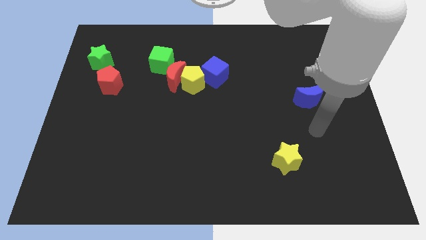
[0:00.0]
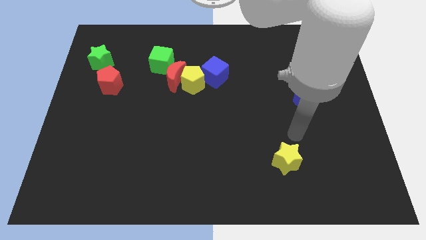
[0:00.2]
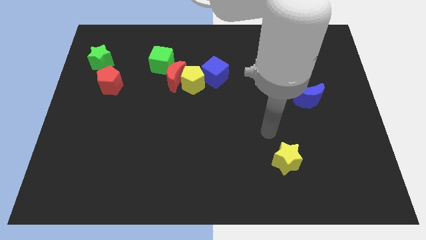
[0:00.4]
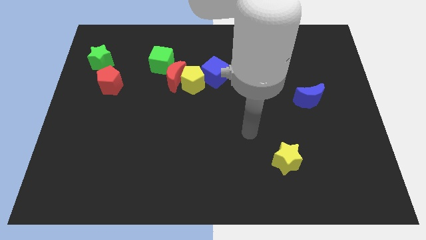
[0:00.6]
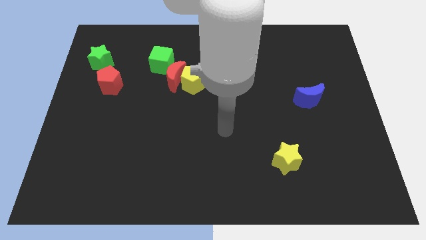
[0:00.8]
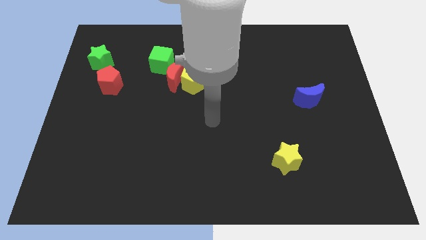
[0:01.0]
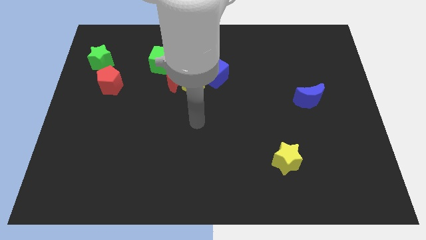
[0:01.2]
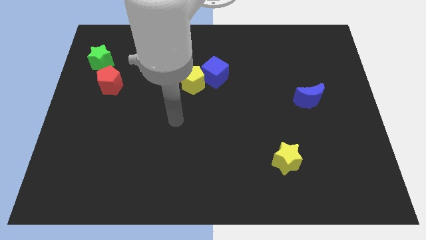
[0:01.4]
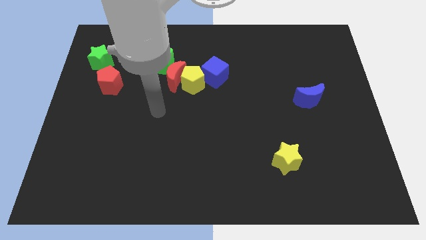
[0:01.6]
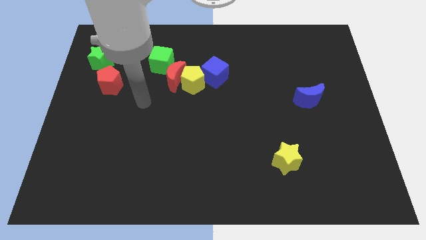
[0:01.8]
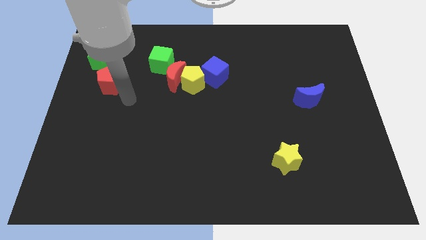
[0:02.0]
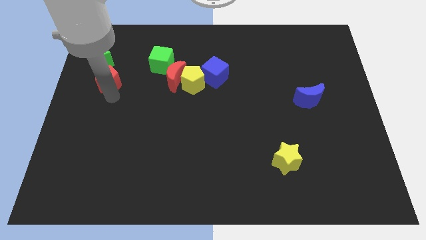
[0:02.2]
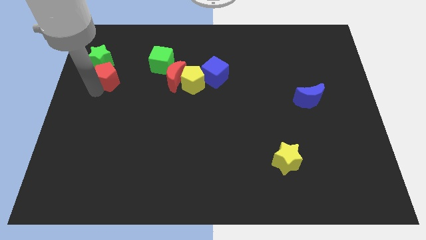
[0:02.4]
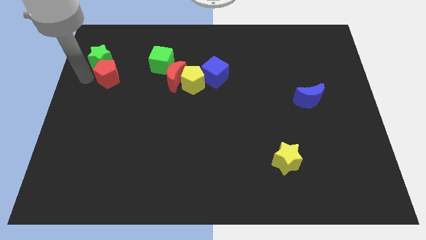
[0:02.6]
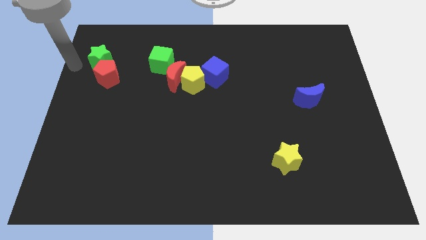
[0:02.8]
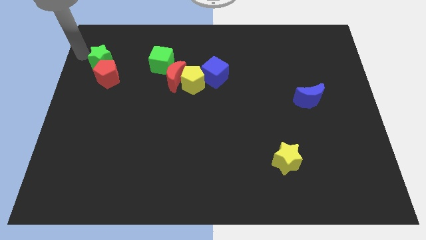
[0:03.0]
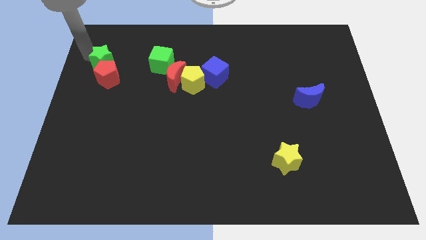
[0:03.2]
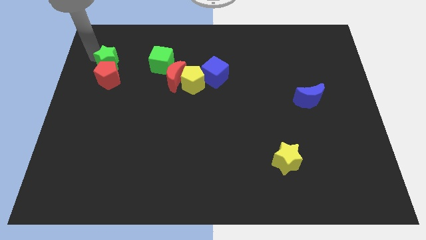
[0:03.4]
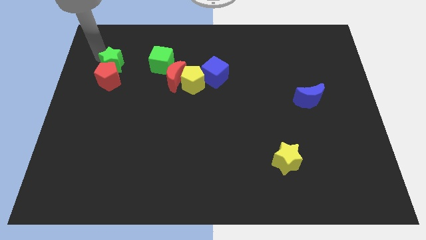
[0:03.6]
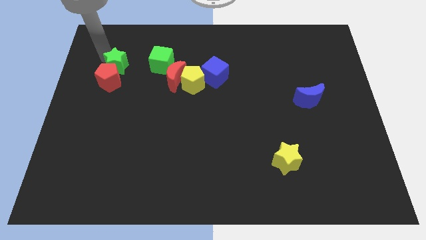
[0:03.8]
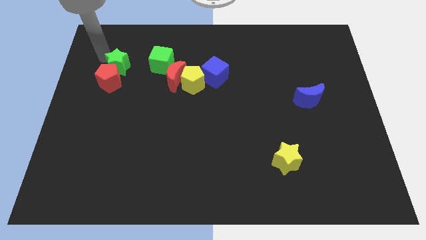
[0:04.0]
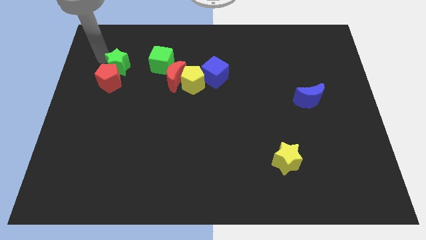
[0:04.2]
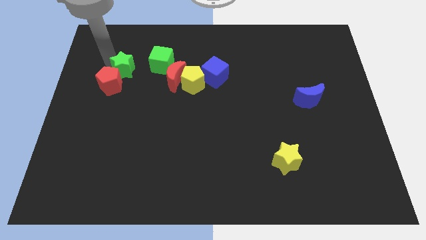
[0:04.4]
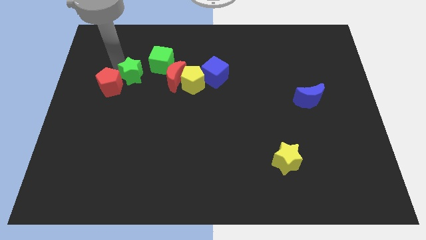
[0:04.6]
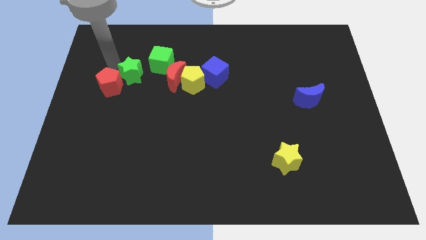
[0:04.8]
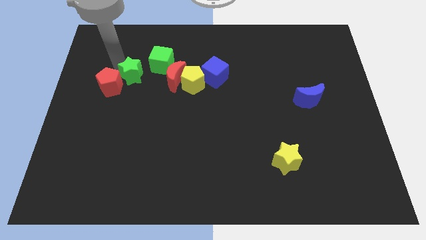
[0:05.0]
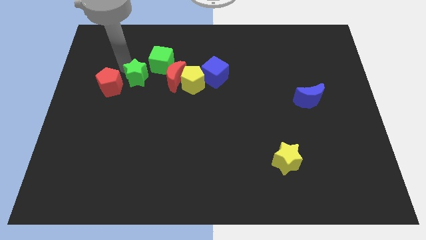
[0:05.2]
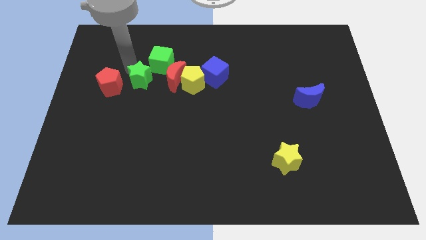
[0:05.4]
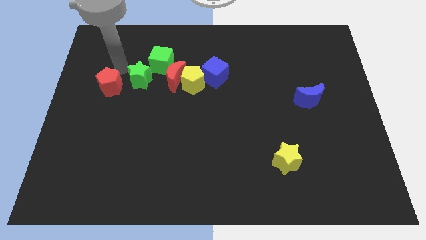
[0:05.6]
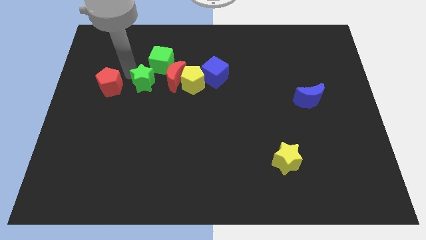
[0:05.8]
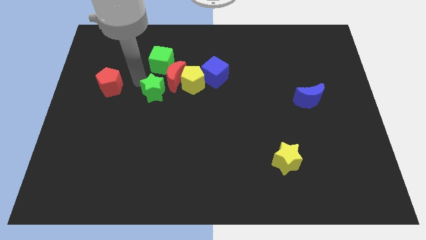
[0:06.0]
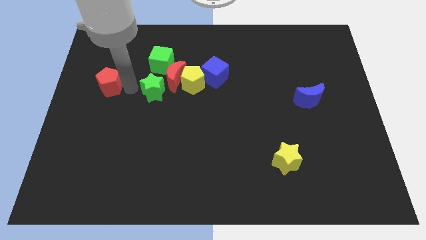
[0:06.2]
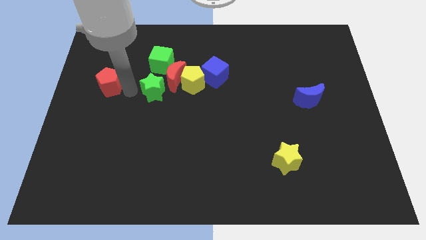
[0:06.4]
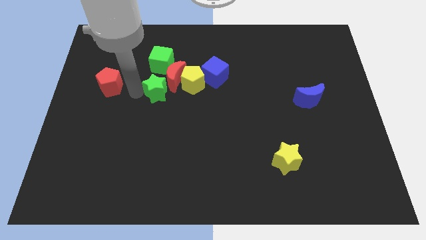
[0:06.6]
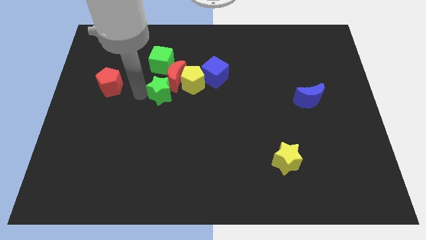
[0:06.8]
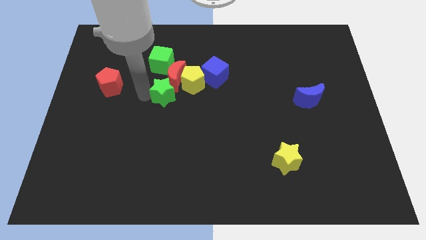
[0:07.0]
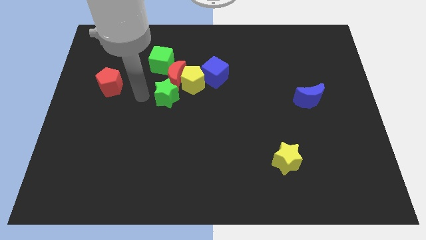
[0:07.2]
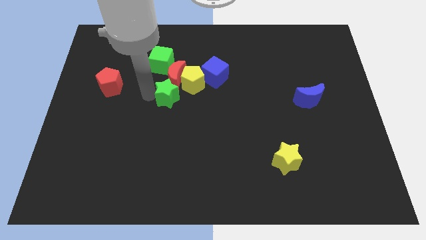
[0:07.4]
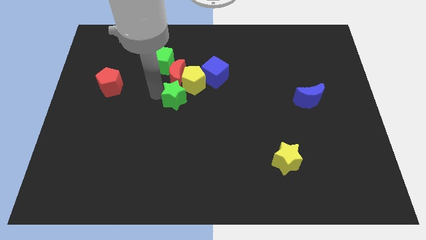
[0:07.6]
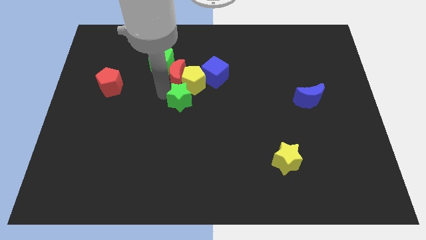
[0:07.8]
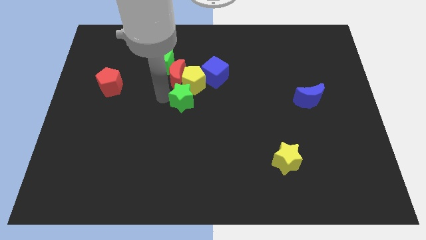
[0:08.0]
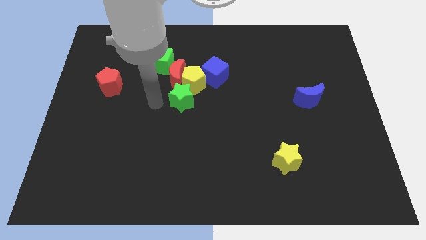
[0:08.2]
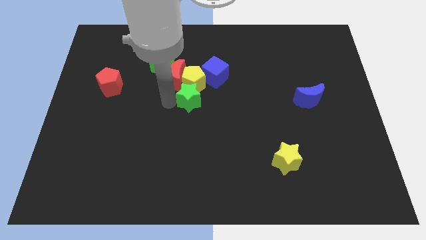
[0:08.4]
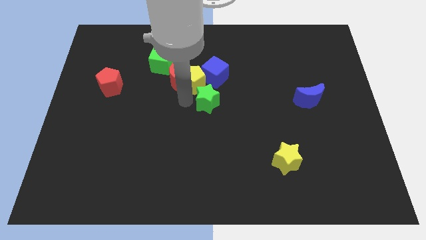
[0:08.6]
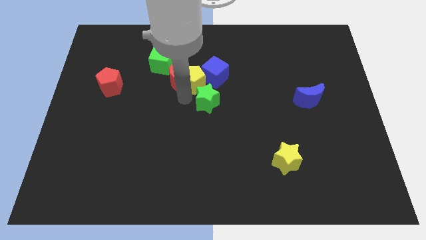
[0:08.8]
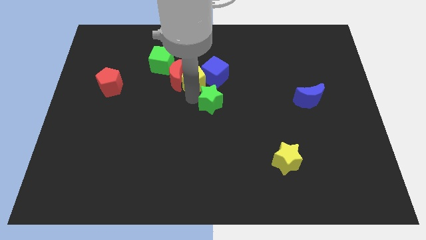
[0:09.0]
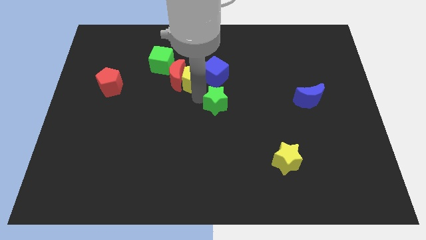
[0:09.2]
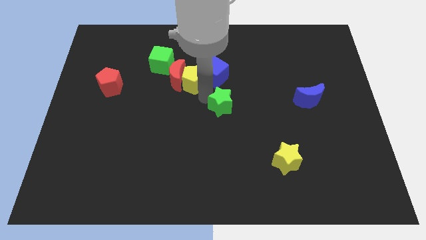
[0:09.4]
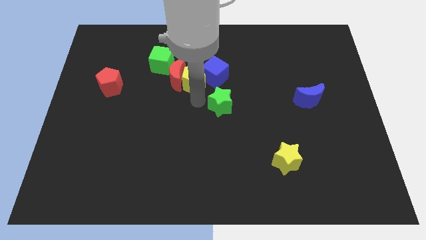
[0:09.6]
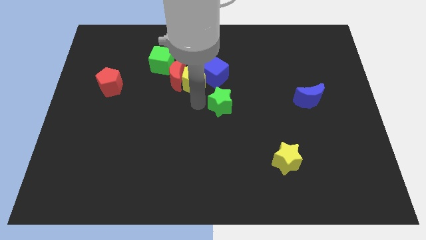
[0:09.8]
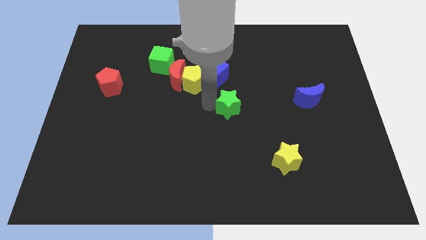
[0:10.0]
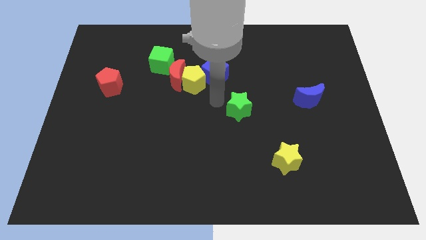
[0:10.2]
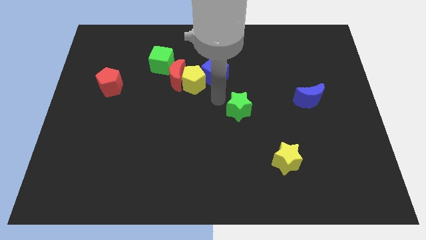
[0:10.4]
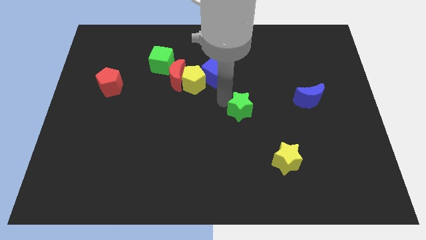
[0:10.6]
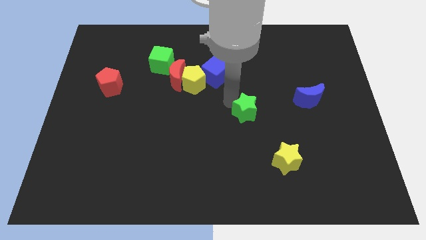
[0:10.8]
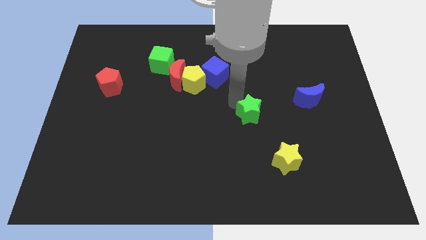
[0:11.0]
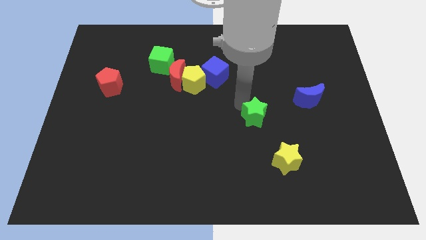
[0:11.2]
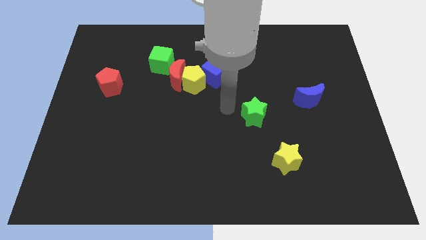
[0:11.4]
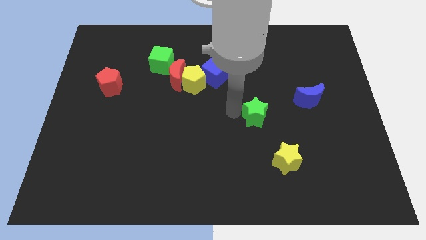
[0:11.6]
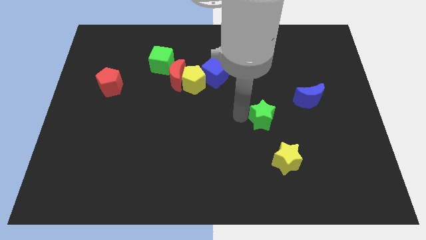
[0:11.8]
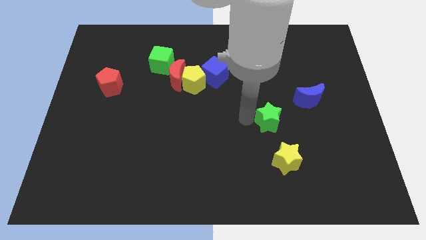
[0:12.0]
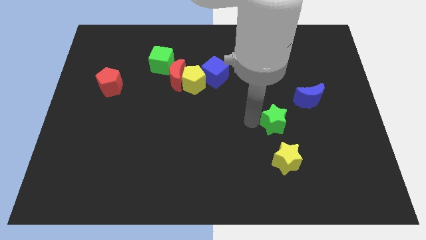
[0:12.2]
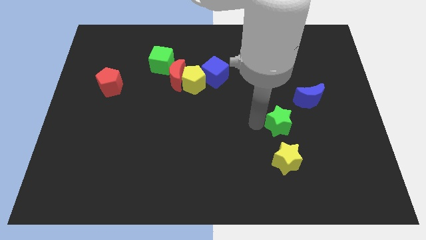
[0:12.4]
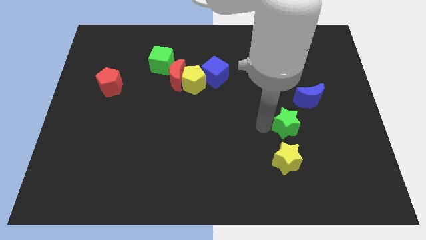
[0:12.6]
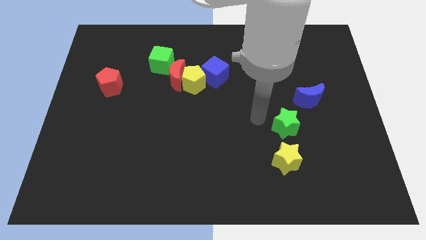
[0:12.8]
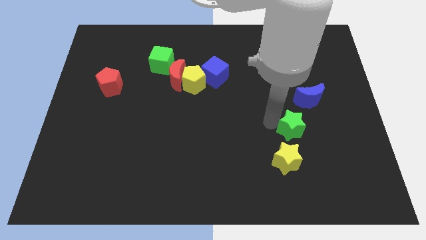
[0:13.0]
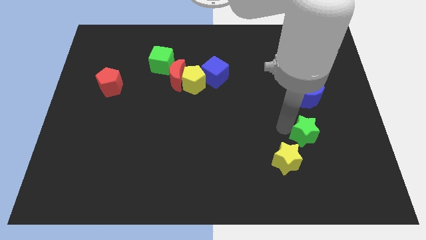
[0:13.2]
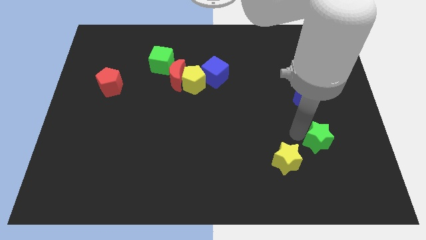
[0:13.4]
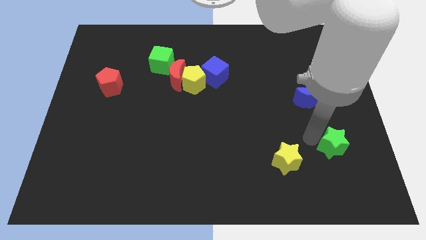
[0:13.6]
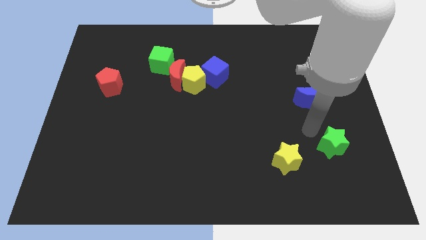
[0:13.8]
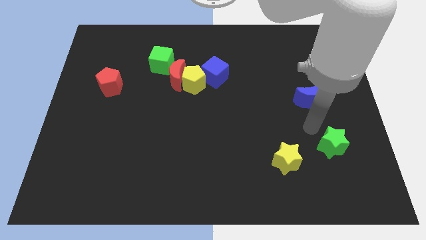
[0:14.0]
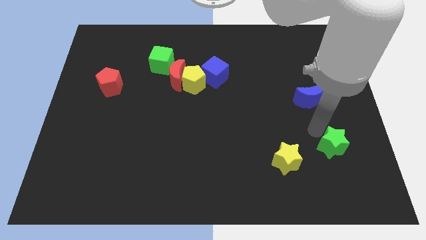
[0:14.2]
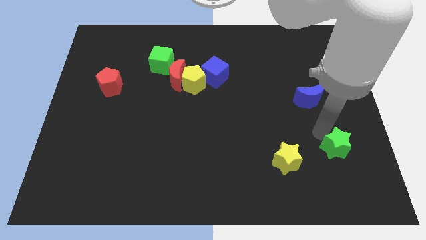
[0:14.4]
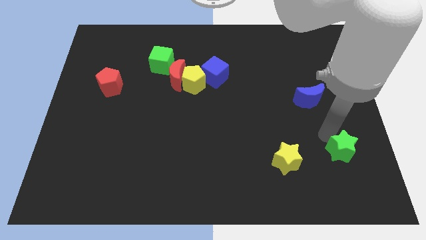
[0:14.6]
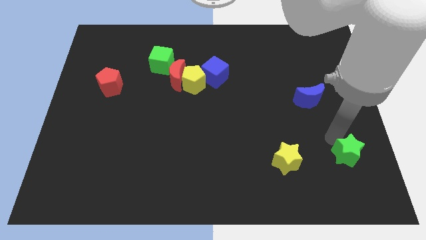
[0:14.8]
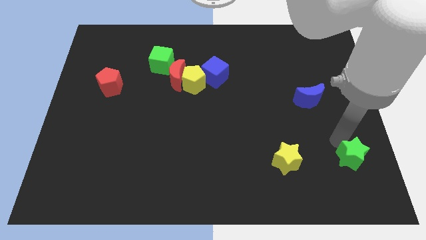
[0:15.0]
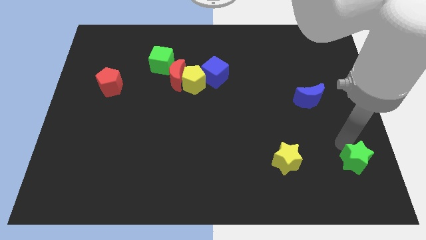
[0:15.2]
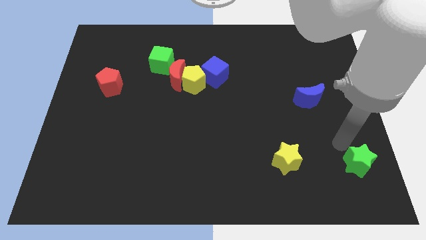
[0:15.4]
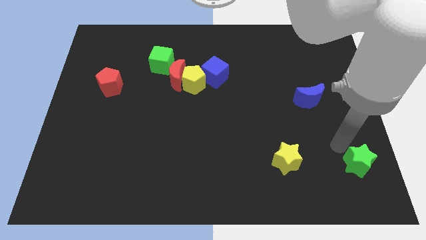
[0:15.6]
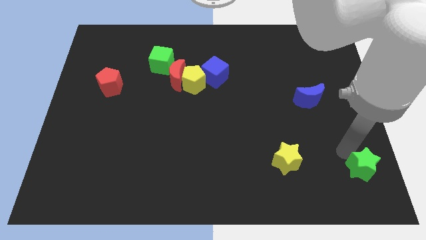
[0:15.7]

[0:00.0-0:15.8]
push the green star to the bottom right
